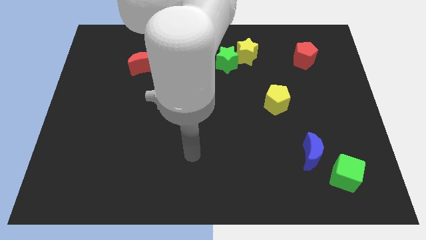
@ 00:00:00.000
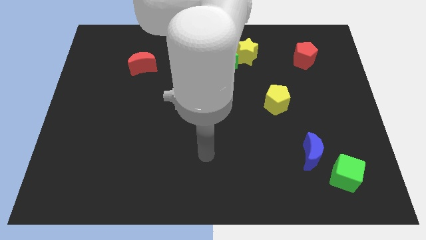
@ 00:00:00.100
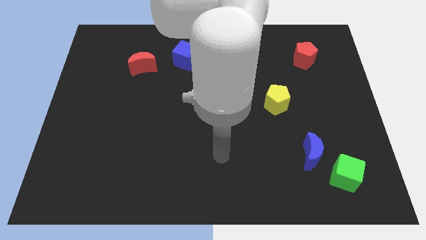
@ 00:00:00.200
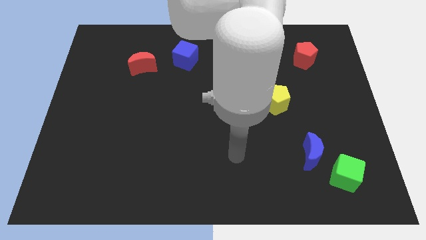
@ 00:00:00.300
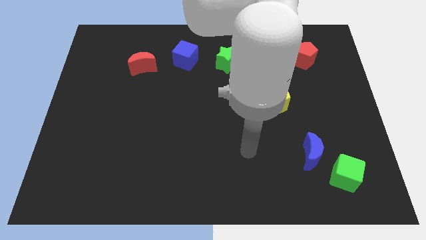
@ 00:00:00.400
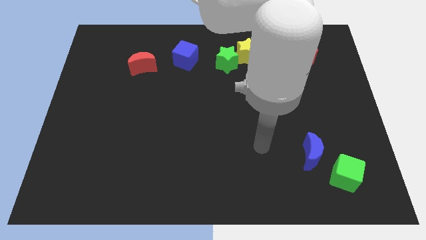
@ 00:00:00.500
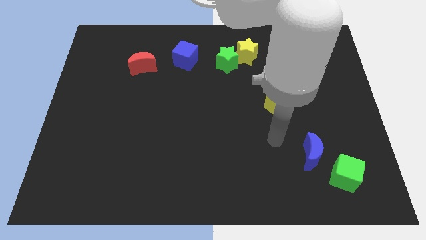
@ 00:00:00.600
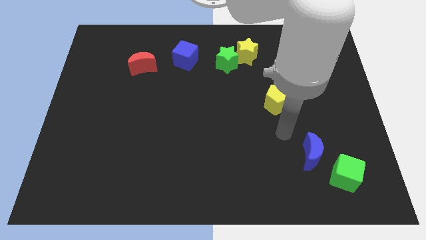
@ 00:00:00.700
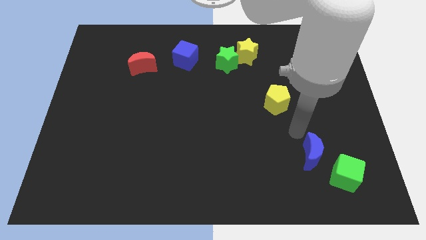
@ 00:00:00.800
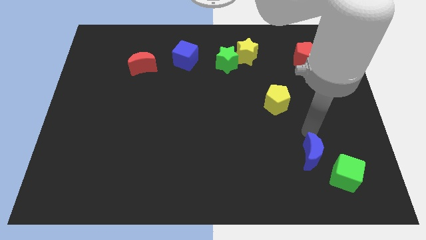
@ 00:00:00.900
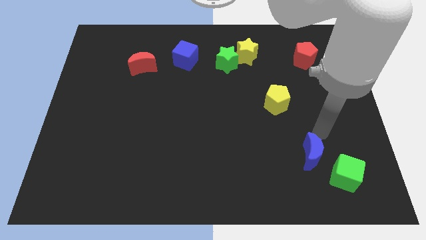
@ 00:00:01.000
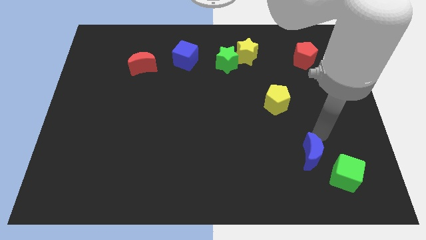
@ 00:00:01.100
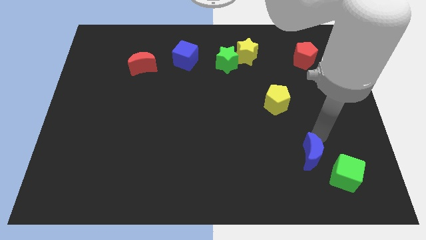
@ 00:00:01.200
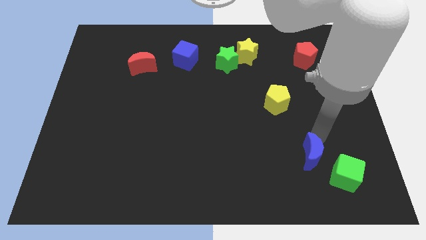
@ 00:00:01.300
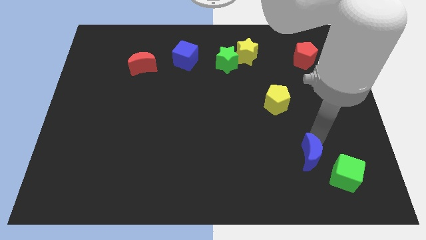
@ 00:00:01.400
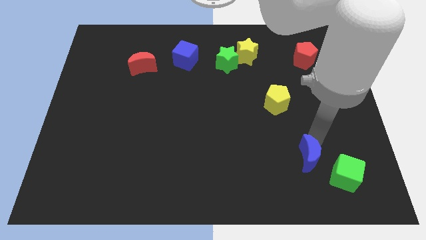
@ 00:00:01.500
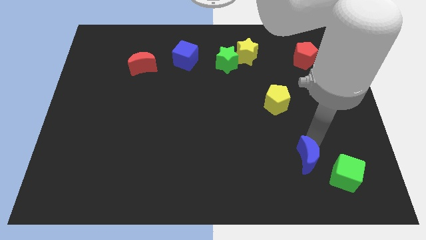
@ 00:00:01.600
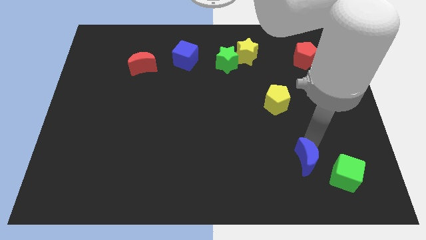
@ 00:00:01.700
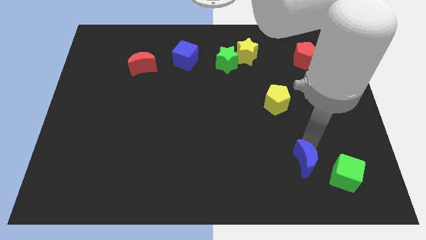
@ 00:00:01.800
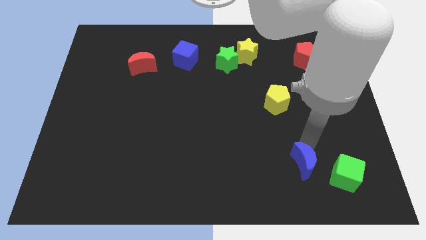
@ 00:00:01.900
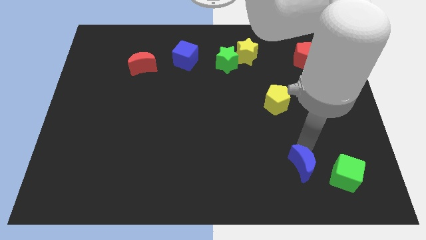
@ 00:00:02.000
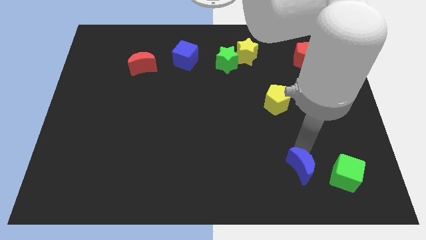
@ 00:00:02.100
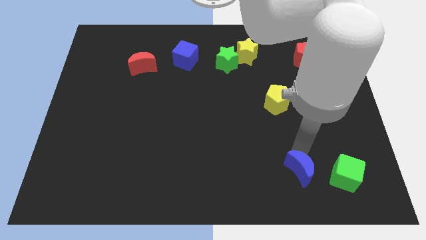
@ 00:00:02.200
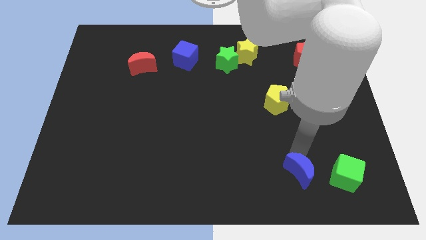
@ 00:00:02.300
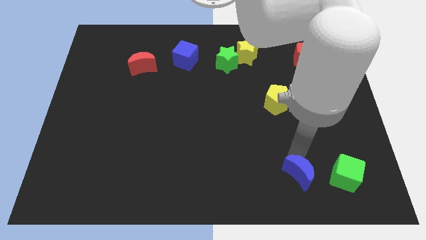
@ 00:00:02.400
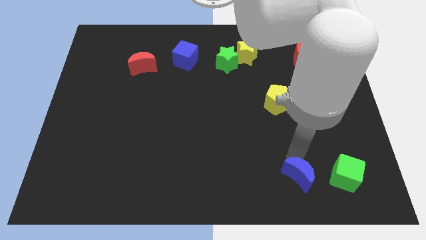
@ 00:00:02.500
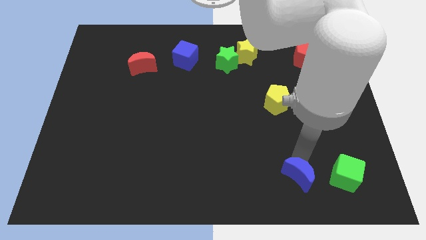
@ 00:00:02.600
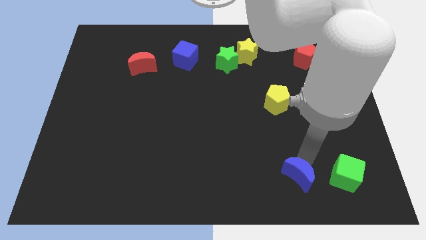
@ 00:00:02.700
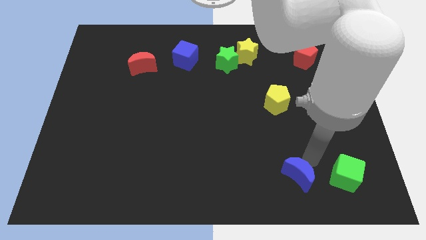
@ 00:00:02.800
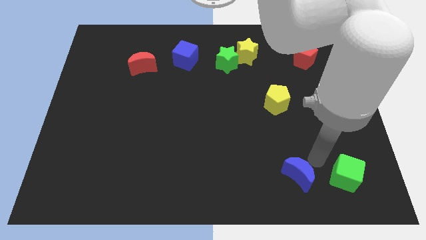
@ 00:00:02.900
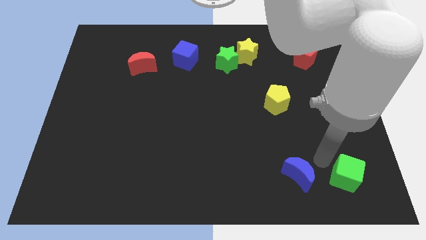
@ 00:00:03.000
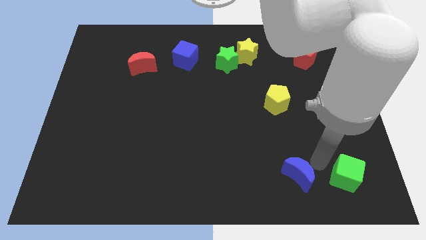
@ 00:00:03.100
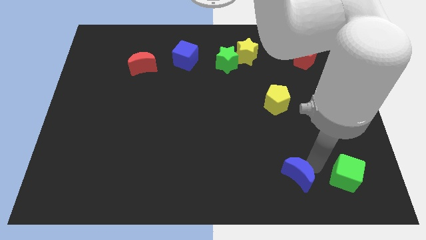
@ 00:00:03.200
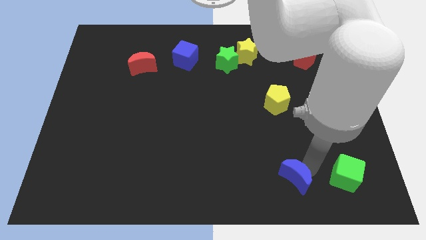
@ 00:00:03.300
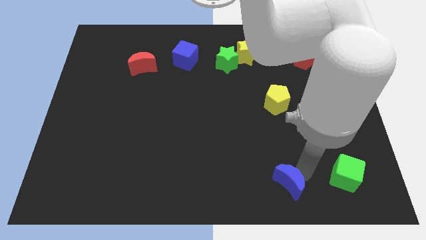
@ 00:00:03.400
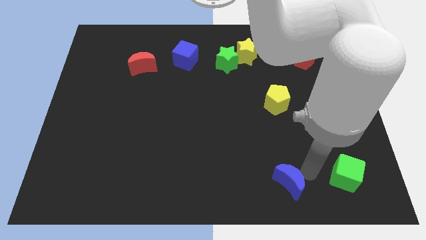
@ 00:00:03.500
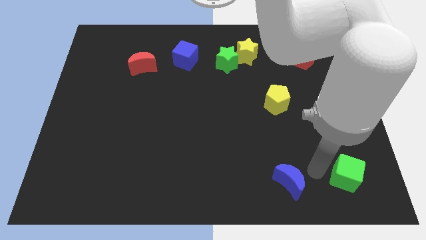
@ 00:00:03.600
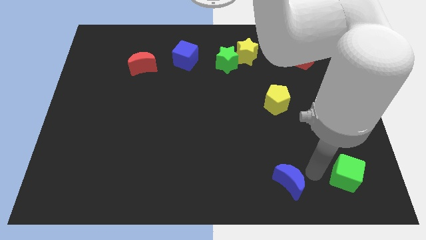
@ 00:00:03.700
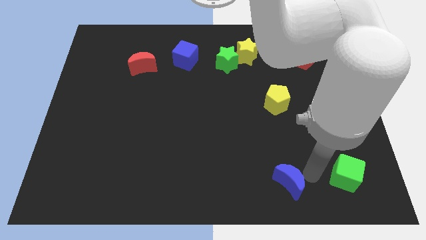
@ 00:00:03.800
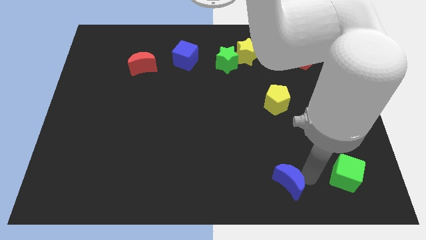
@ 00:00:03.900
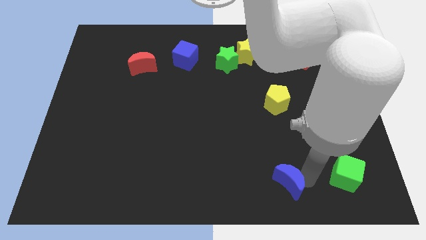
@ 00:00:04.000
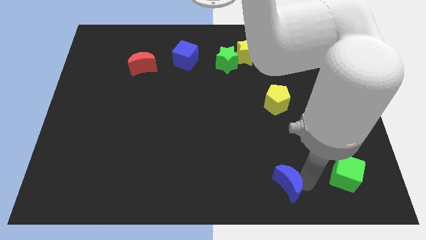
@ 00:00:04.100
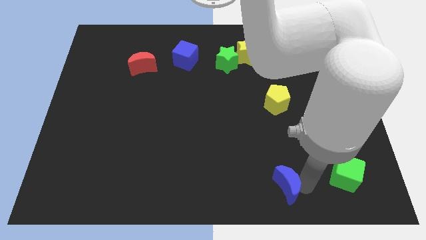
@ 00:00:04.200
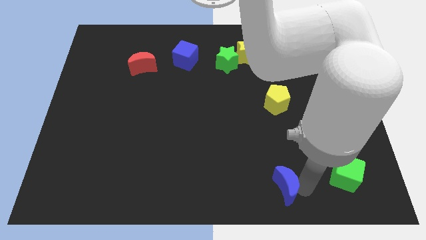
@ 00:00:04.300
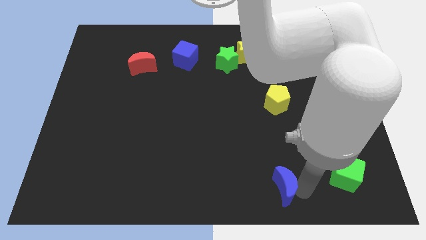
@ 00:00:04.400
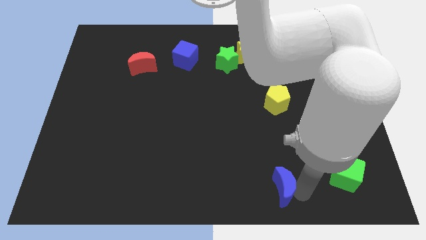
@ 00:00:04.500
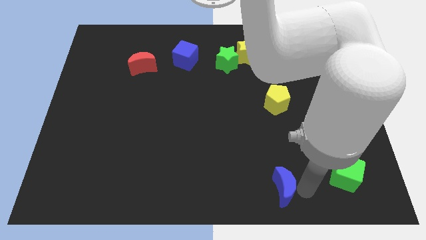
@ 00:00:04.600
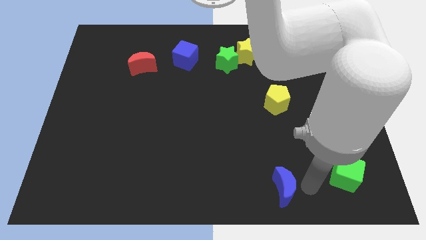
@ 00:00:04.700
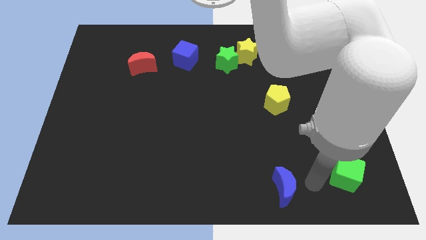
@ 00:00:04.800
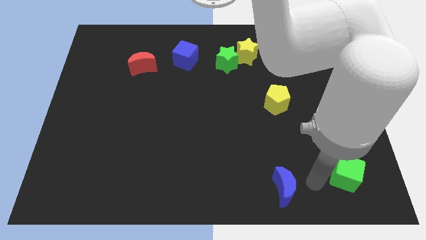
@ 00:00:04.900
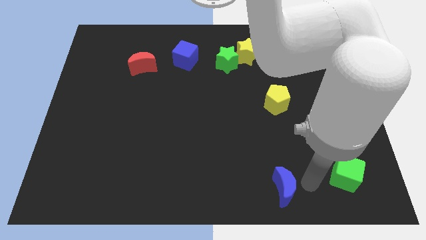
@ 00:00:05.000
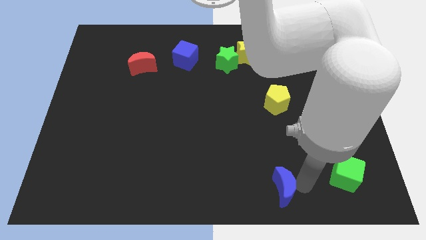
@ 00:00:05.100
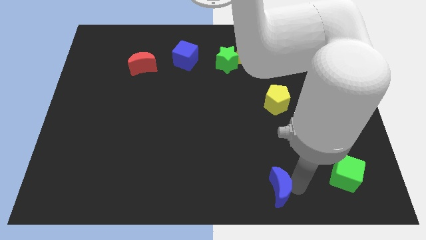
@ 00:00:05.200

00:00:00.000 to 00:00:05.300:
push the blue moon to the bottom

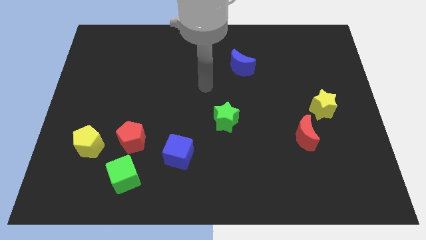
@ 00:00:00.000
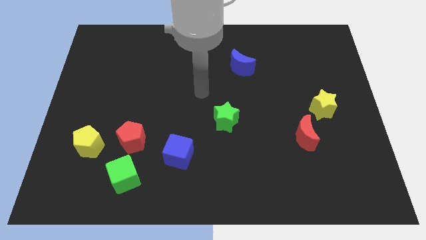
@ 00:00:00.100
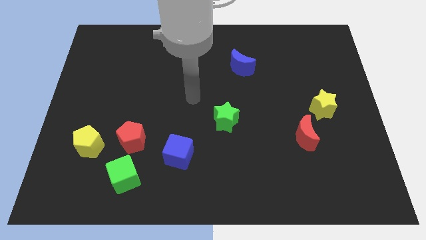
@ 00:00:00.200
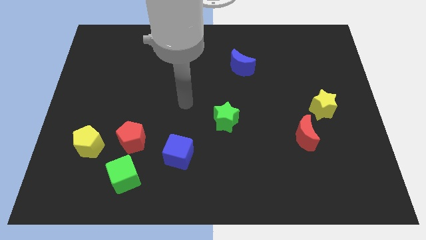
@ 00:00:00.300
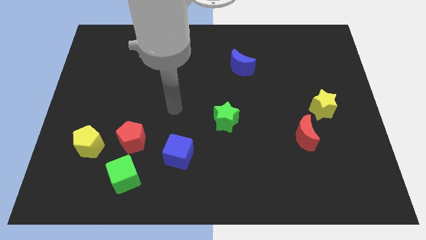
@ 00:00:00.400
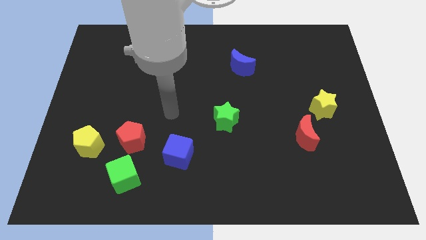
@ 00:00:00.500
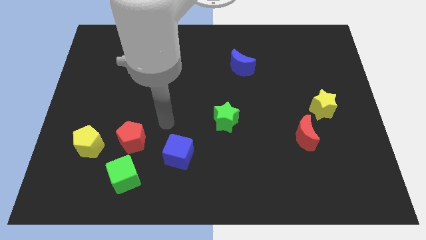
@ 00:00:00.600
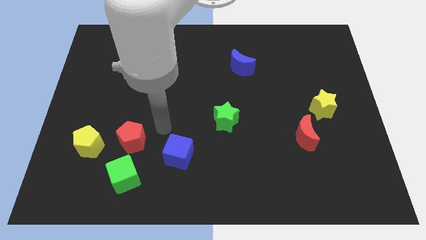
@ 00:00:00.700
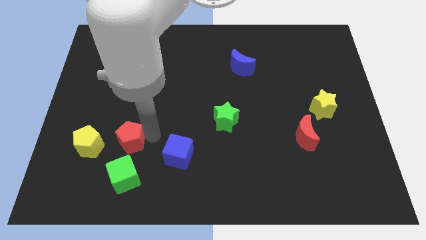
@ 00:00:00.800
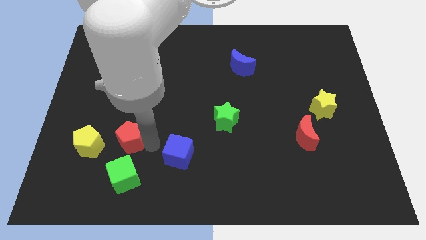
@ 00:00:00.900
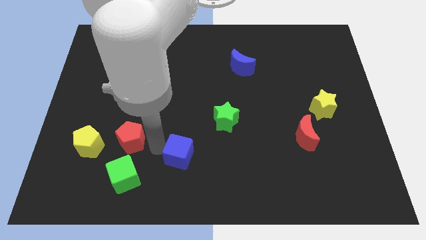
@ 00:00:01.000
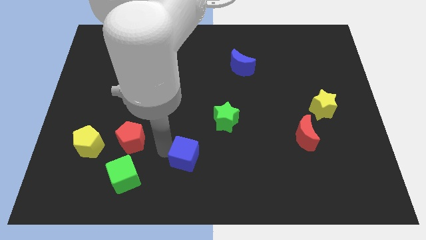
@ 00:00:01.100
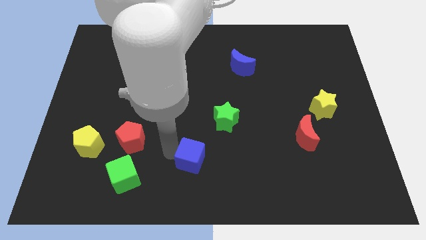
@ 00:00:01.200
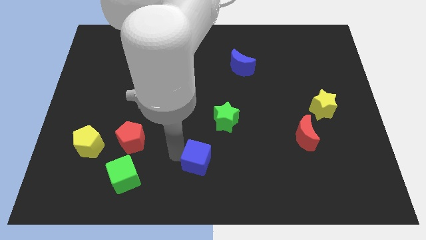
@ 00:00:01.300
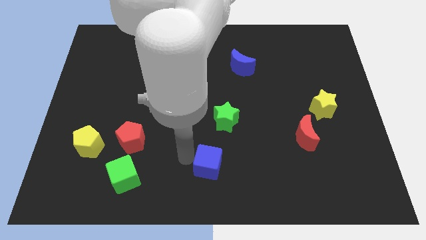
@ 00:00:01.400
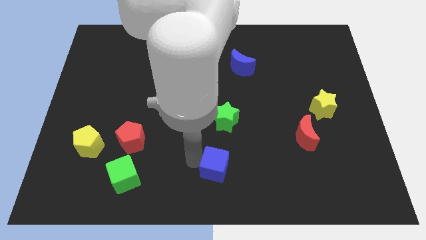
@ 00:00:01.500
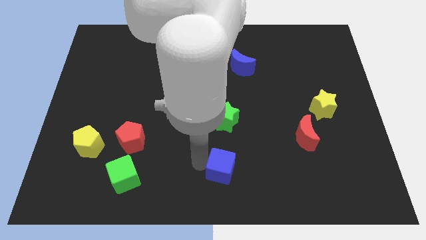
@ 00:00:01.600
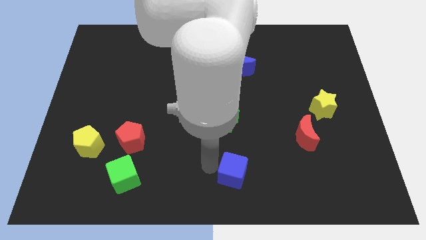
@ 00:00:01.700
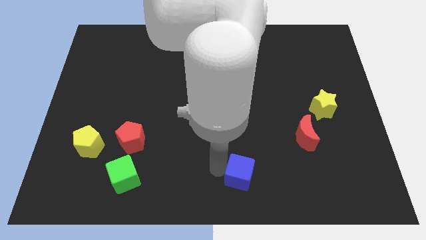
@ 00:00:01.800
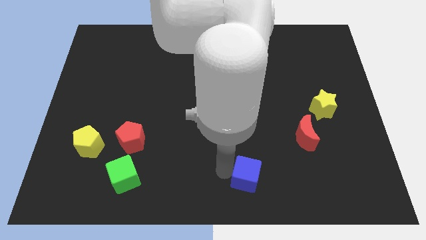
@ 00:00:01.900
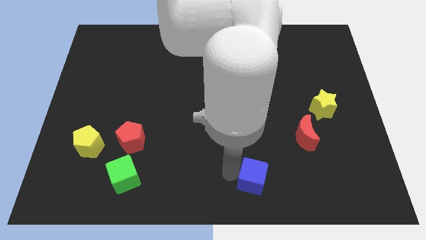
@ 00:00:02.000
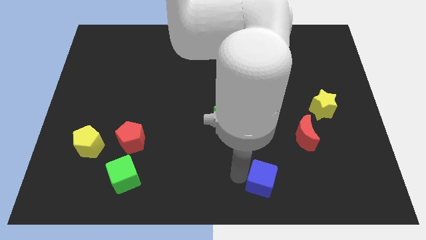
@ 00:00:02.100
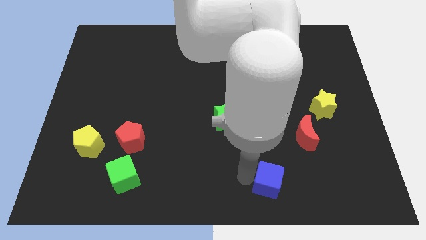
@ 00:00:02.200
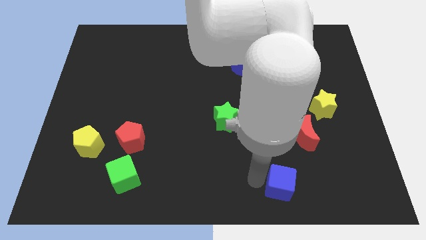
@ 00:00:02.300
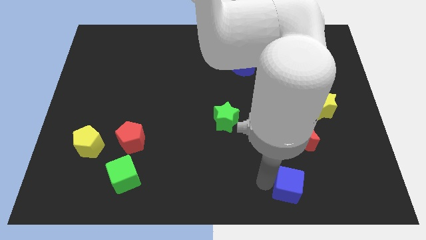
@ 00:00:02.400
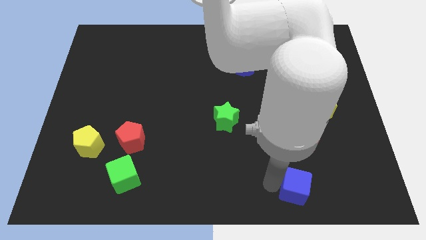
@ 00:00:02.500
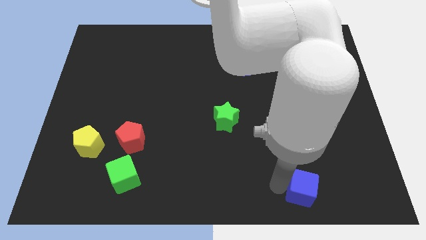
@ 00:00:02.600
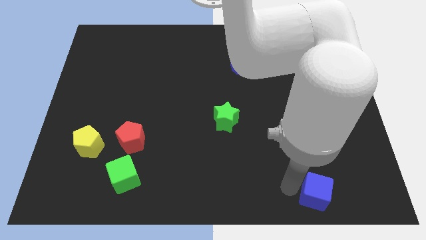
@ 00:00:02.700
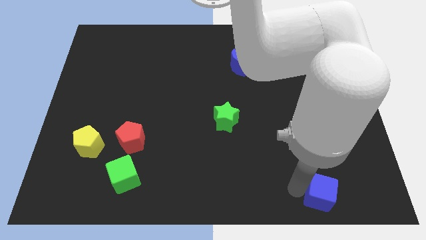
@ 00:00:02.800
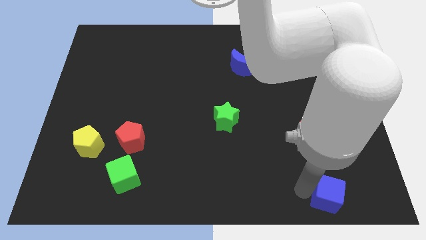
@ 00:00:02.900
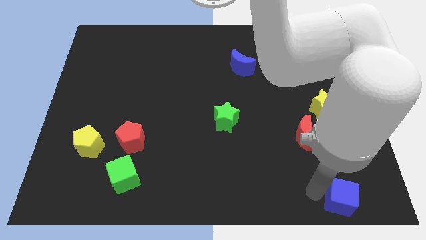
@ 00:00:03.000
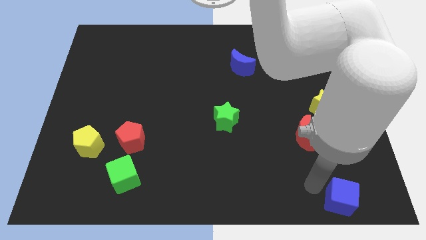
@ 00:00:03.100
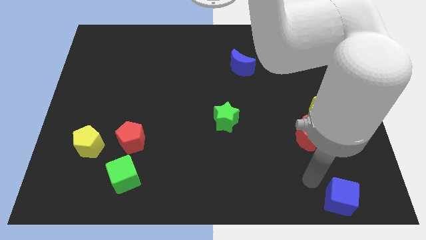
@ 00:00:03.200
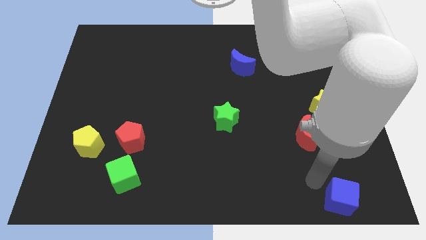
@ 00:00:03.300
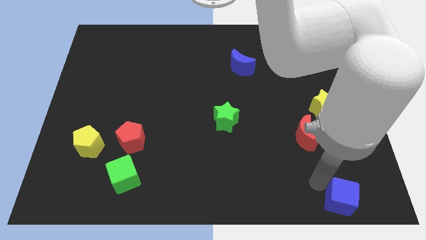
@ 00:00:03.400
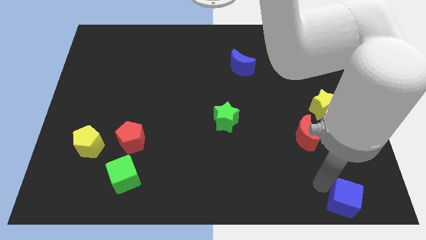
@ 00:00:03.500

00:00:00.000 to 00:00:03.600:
push the blue cube to the bottom right of the board
